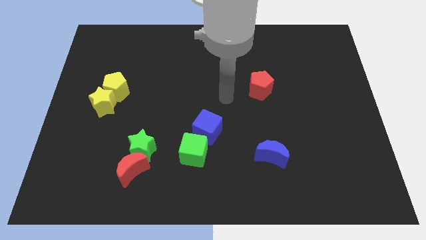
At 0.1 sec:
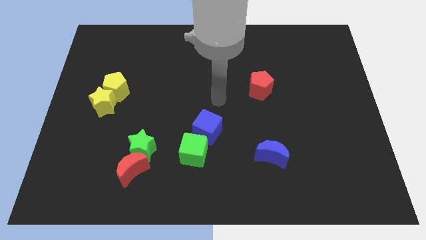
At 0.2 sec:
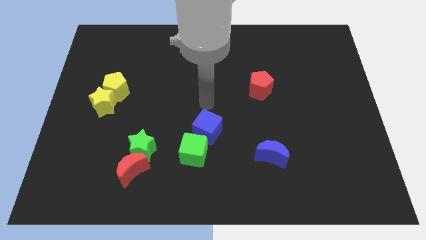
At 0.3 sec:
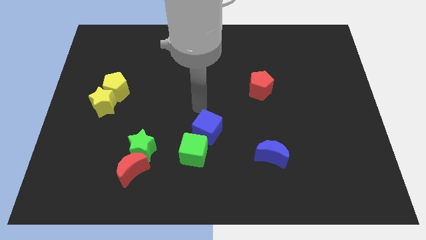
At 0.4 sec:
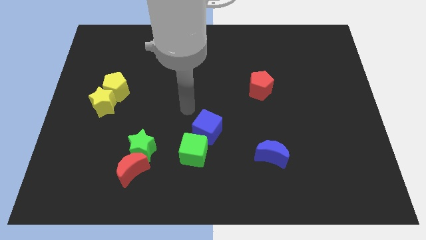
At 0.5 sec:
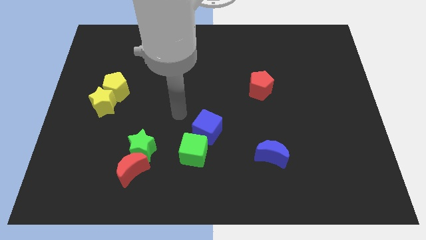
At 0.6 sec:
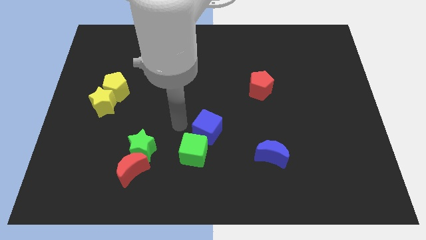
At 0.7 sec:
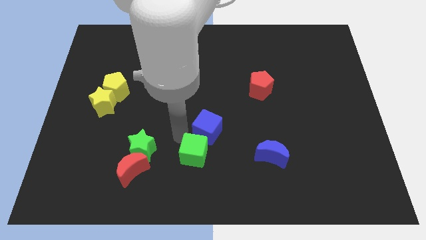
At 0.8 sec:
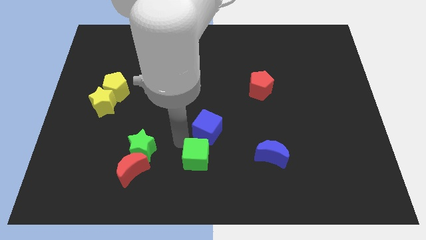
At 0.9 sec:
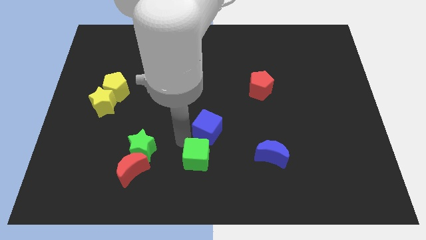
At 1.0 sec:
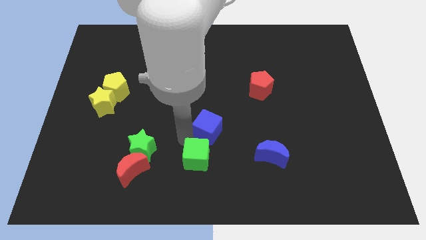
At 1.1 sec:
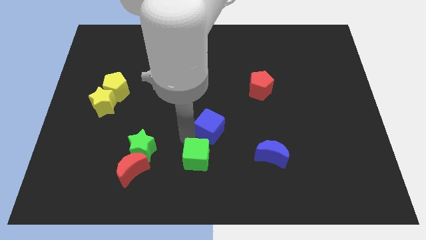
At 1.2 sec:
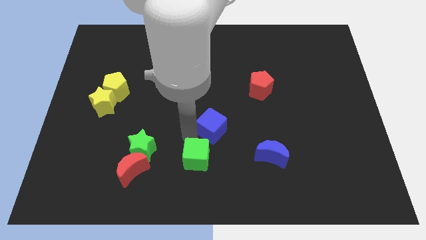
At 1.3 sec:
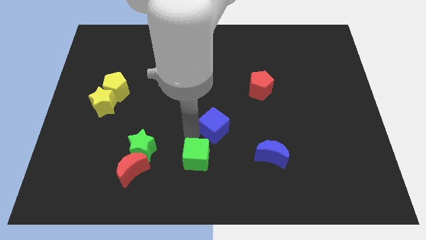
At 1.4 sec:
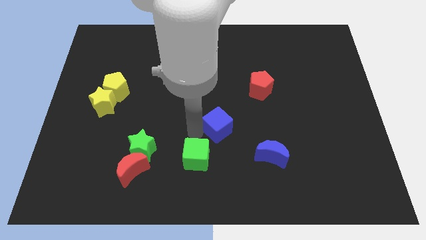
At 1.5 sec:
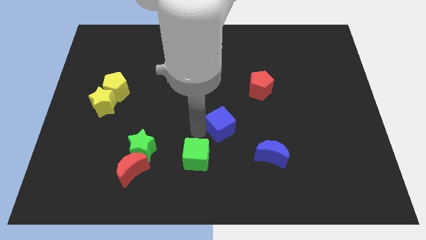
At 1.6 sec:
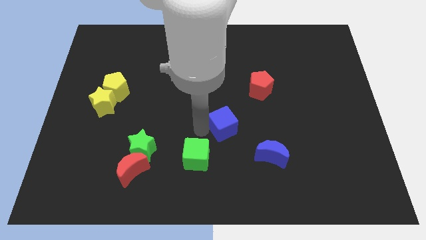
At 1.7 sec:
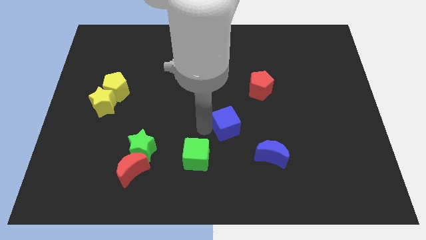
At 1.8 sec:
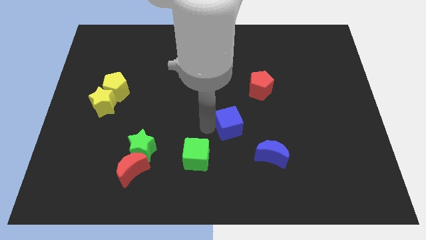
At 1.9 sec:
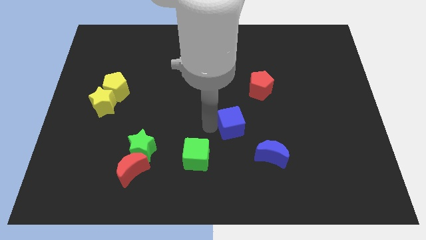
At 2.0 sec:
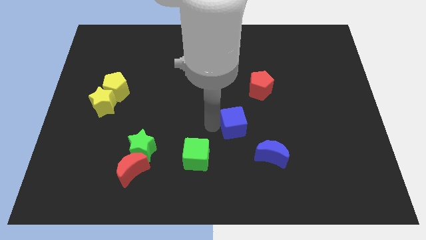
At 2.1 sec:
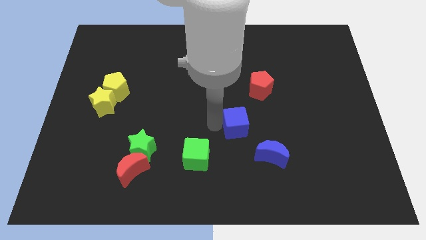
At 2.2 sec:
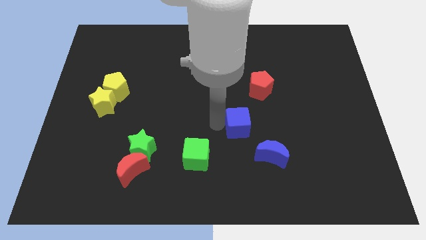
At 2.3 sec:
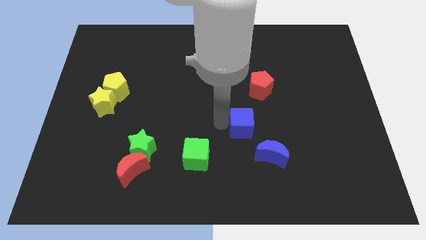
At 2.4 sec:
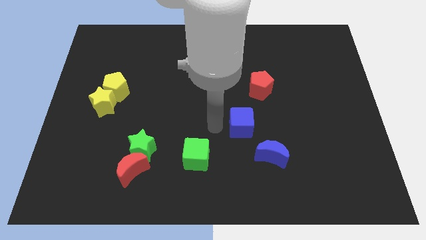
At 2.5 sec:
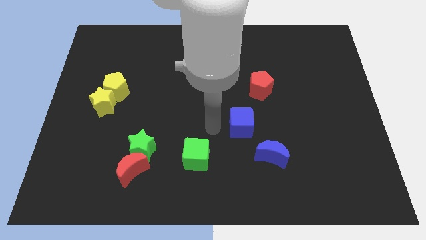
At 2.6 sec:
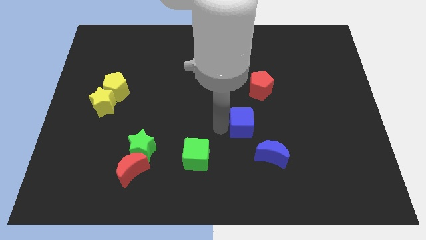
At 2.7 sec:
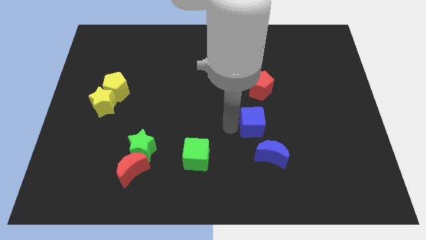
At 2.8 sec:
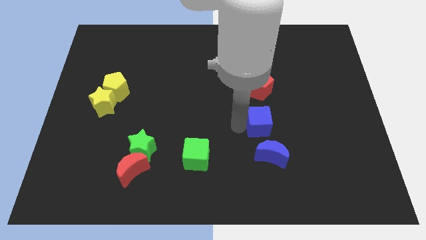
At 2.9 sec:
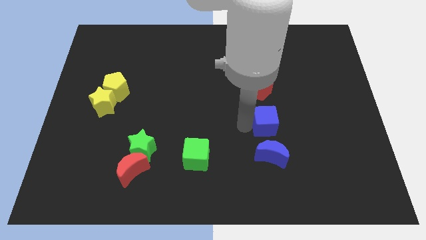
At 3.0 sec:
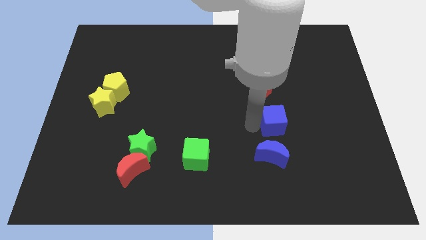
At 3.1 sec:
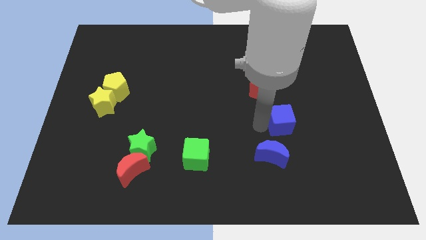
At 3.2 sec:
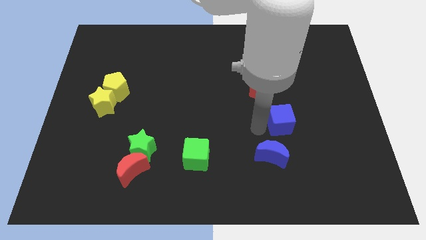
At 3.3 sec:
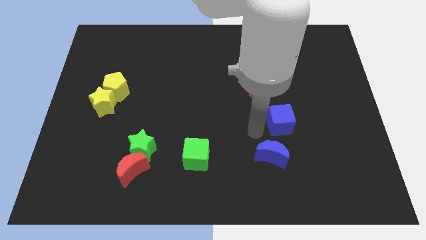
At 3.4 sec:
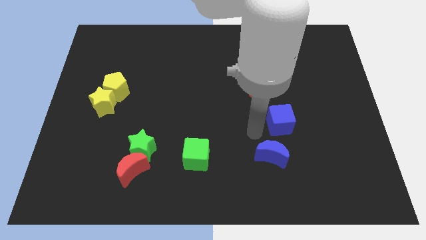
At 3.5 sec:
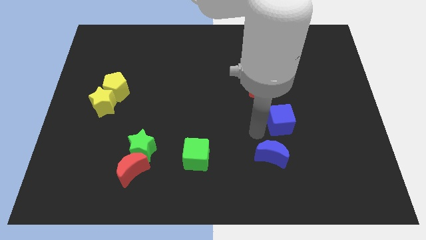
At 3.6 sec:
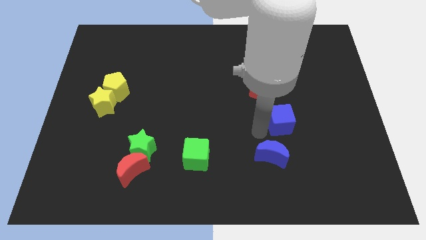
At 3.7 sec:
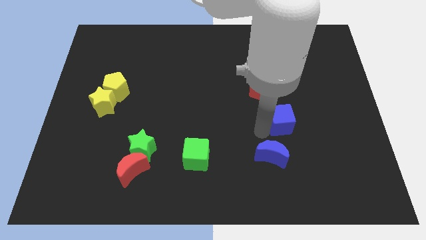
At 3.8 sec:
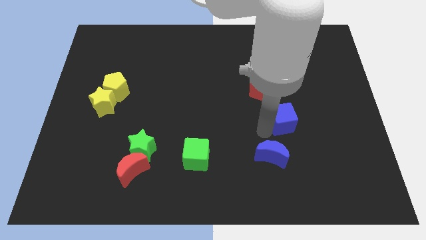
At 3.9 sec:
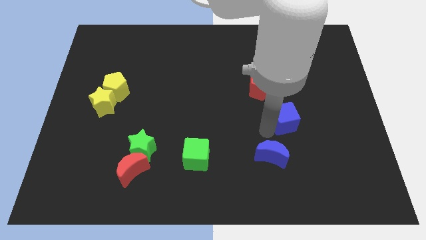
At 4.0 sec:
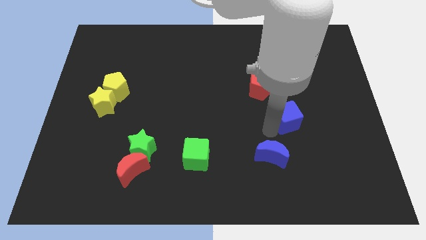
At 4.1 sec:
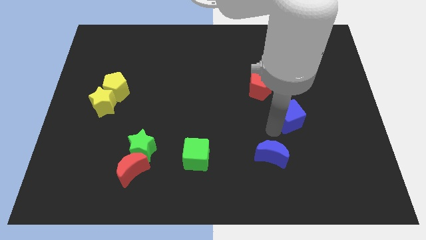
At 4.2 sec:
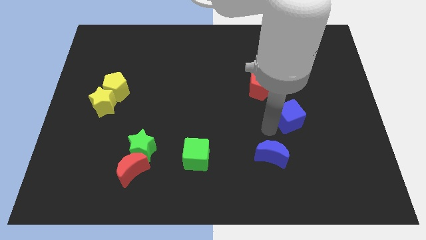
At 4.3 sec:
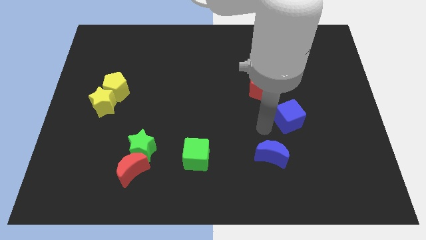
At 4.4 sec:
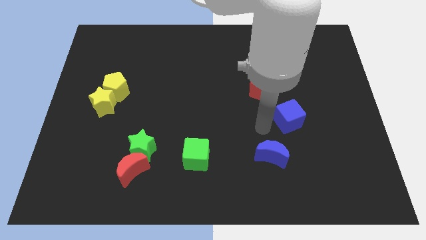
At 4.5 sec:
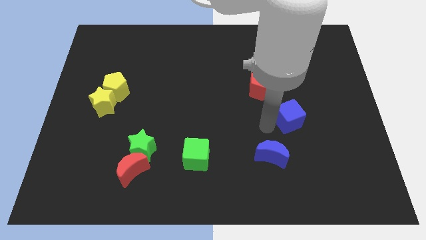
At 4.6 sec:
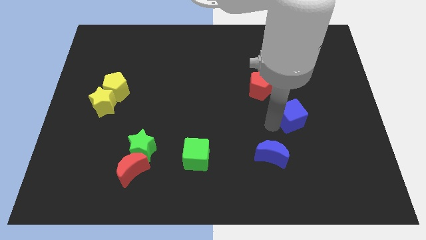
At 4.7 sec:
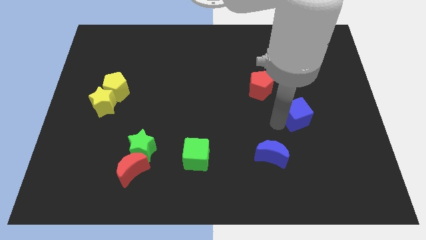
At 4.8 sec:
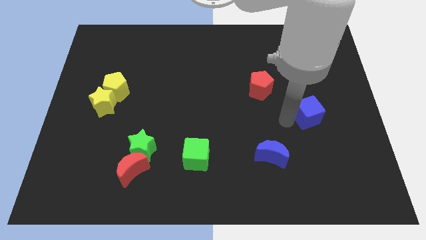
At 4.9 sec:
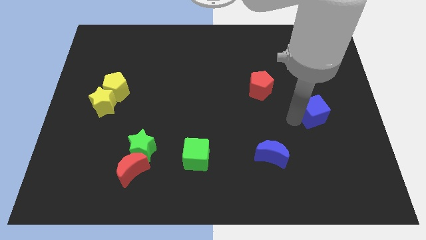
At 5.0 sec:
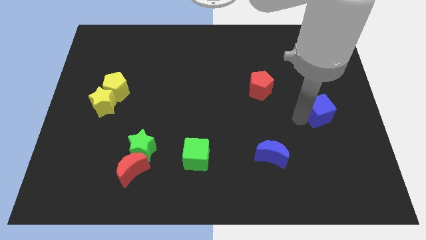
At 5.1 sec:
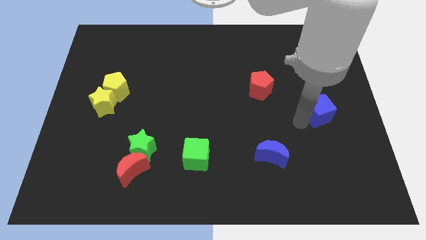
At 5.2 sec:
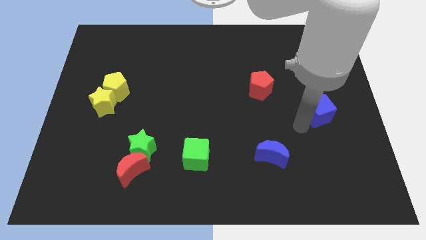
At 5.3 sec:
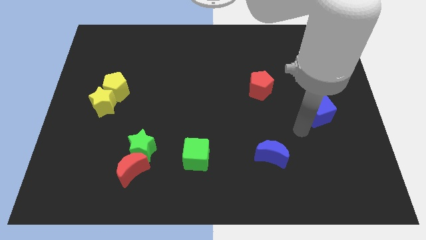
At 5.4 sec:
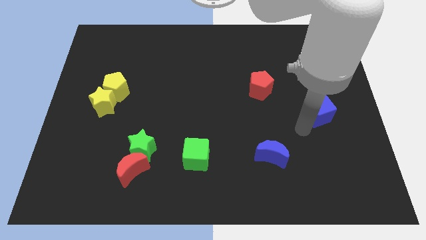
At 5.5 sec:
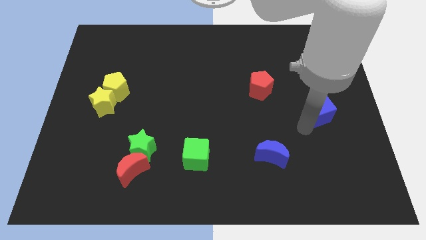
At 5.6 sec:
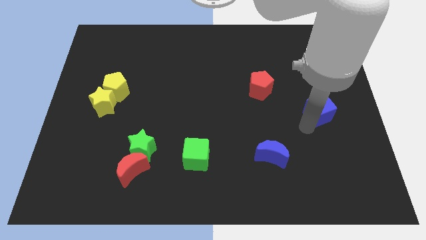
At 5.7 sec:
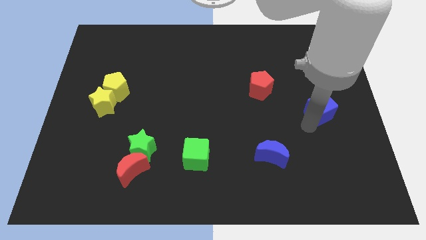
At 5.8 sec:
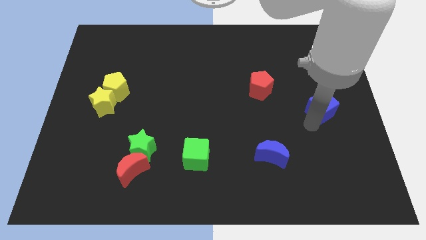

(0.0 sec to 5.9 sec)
push the blue cube to the right side

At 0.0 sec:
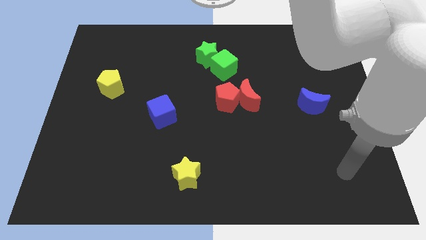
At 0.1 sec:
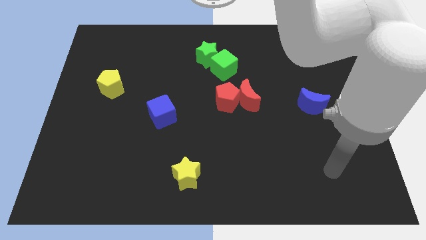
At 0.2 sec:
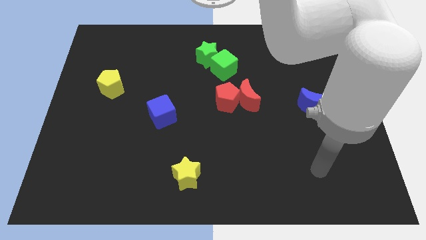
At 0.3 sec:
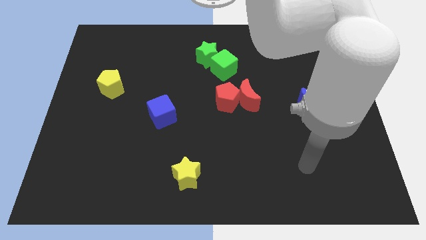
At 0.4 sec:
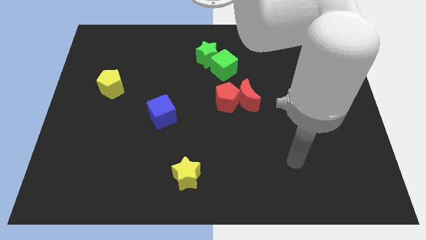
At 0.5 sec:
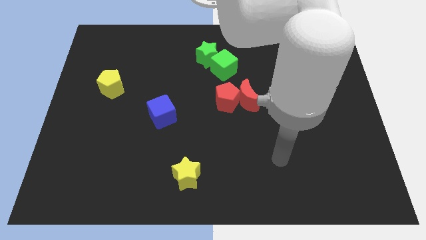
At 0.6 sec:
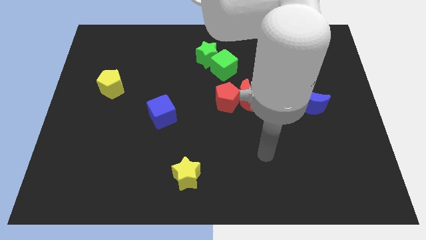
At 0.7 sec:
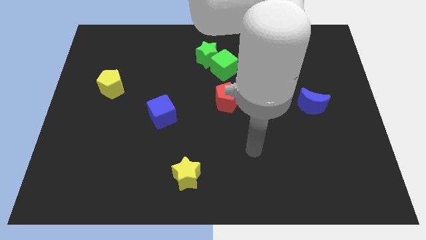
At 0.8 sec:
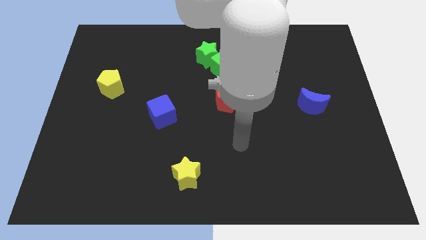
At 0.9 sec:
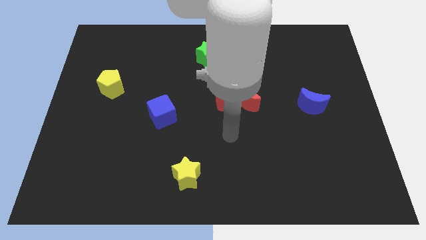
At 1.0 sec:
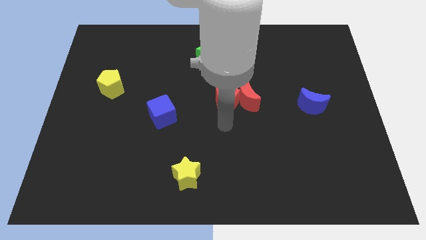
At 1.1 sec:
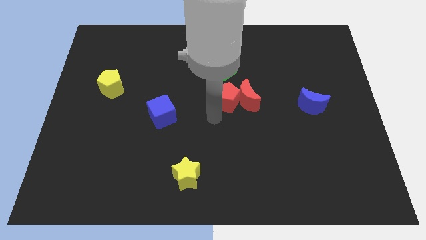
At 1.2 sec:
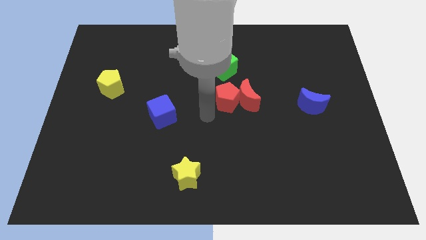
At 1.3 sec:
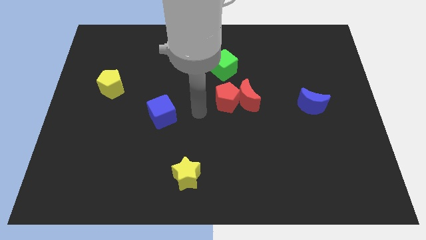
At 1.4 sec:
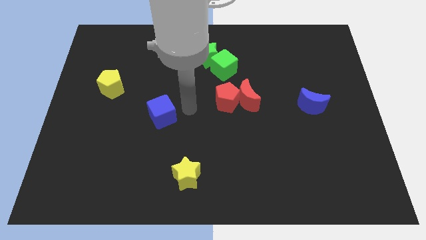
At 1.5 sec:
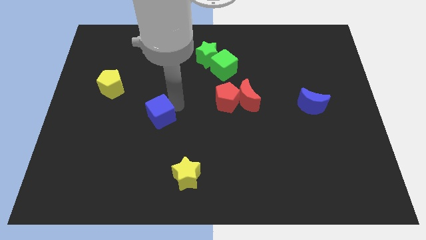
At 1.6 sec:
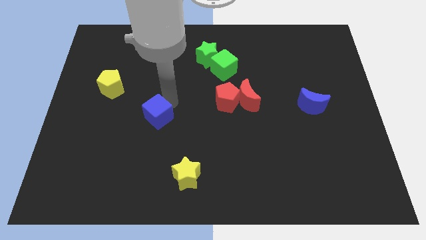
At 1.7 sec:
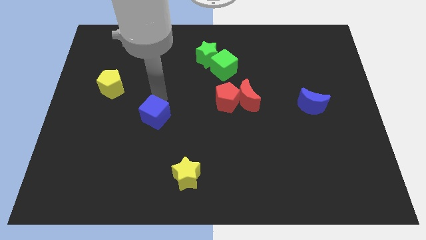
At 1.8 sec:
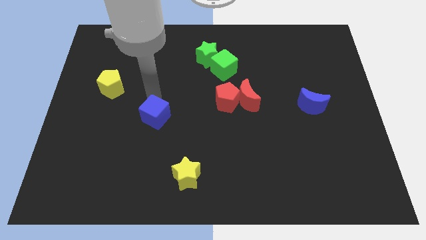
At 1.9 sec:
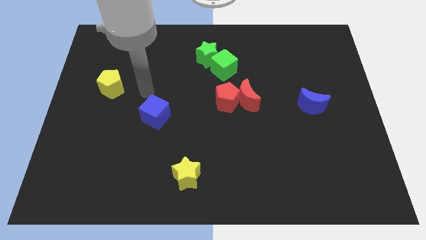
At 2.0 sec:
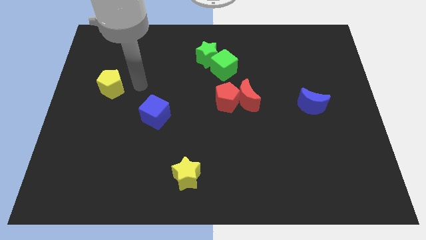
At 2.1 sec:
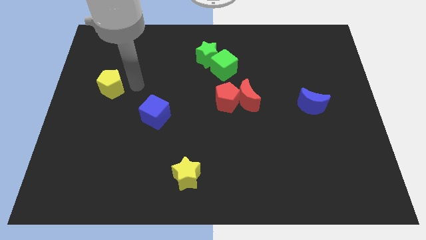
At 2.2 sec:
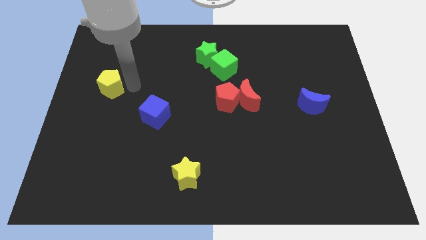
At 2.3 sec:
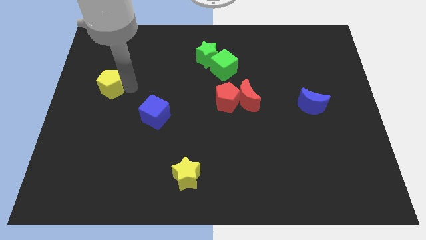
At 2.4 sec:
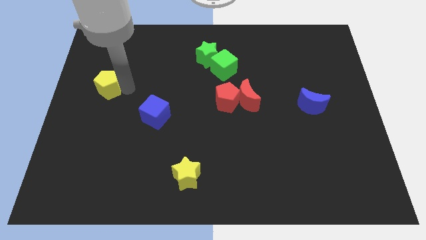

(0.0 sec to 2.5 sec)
push the yellow pentagon to the left side
